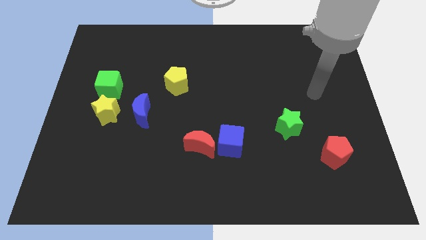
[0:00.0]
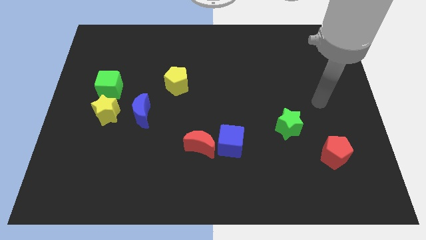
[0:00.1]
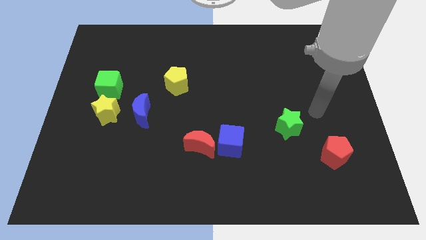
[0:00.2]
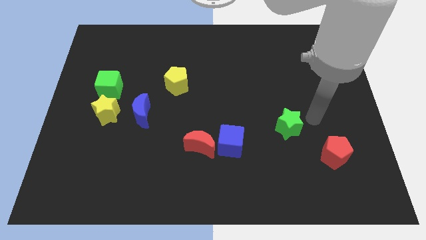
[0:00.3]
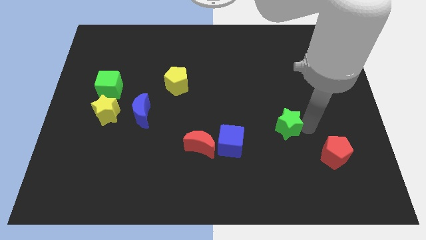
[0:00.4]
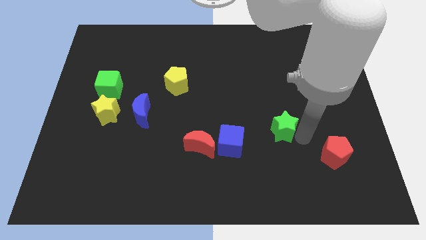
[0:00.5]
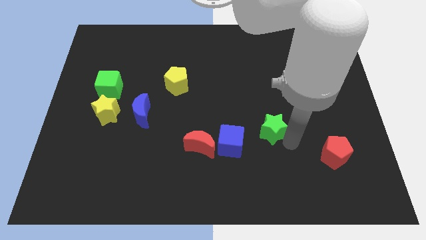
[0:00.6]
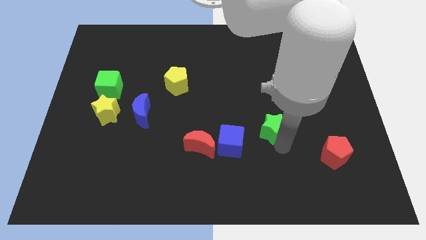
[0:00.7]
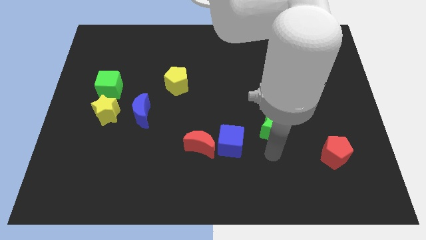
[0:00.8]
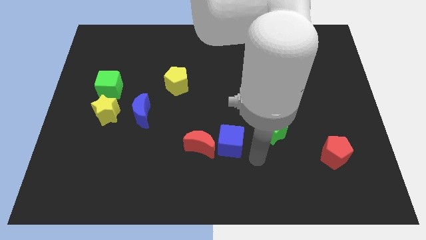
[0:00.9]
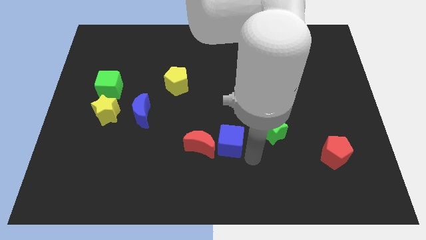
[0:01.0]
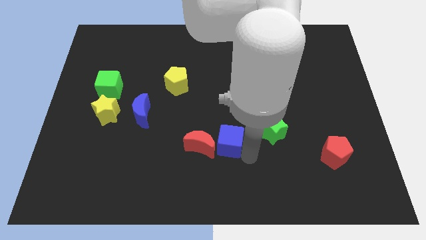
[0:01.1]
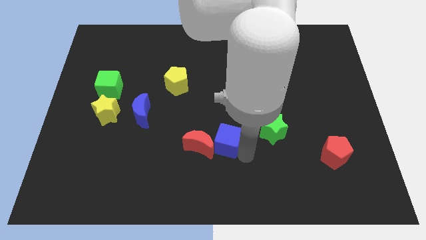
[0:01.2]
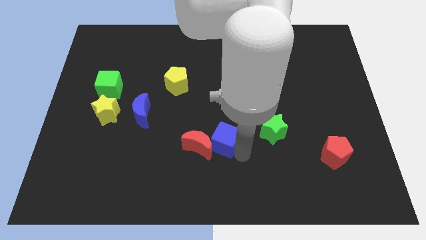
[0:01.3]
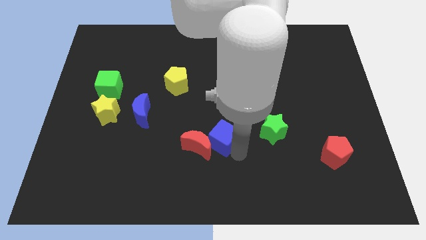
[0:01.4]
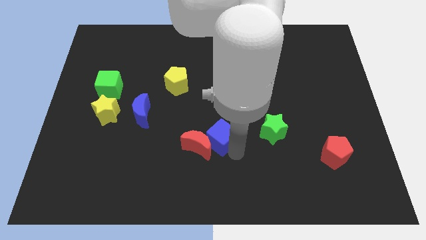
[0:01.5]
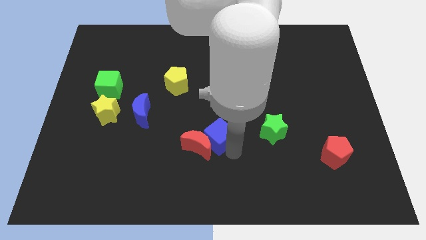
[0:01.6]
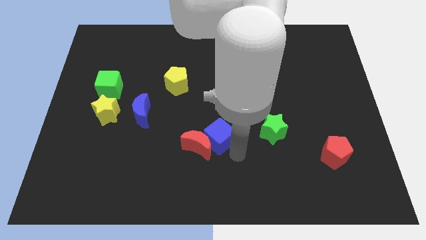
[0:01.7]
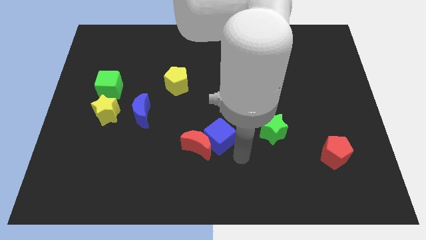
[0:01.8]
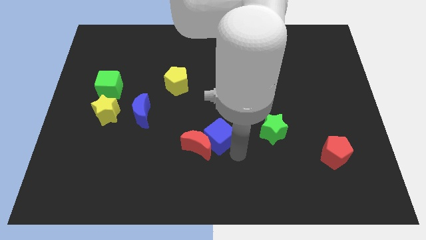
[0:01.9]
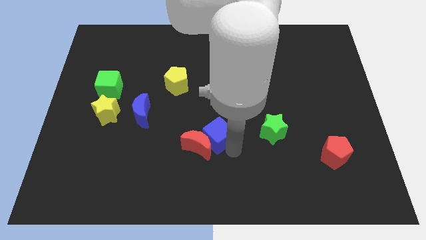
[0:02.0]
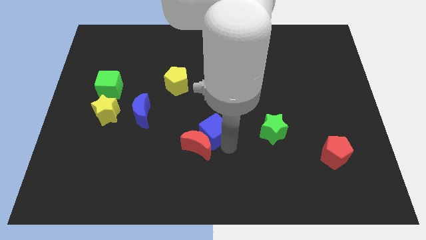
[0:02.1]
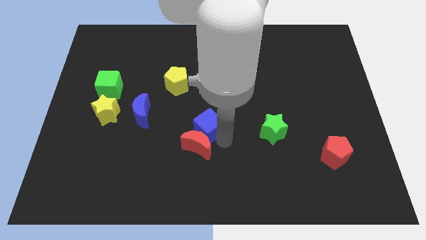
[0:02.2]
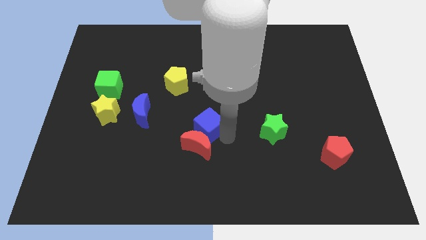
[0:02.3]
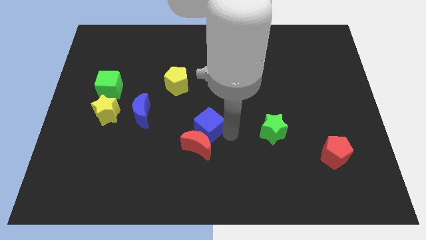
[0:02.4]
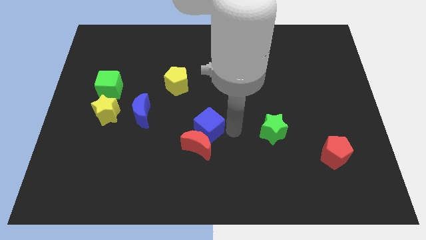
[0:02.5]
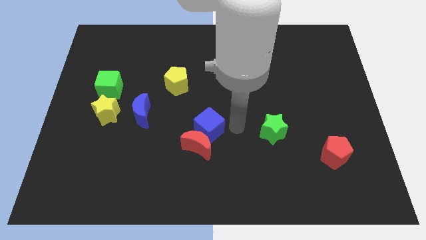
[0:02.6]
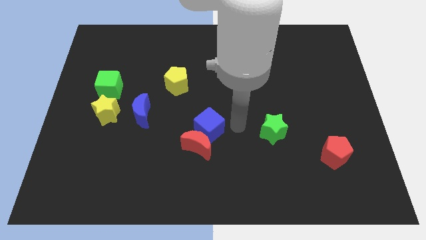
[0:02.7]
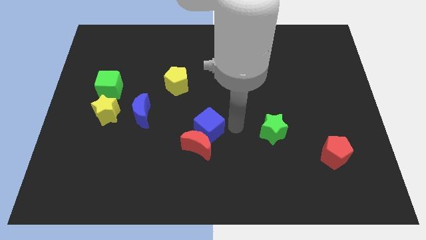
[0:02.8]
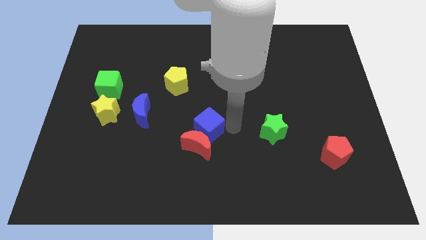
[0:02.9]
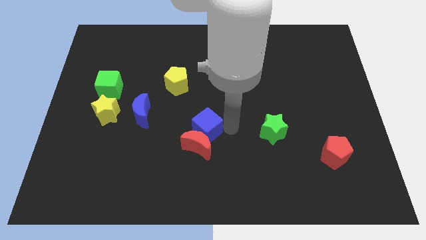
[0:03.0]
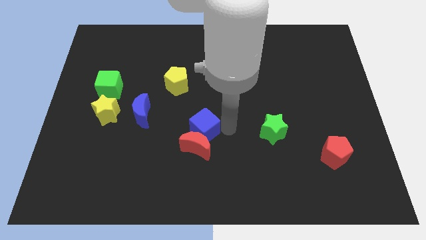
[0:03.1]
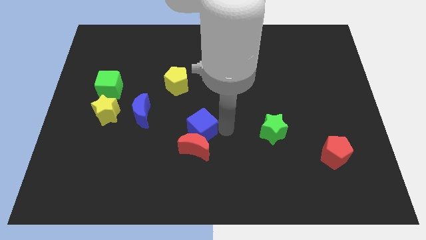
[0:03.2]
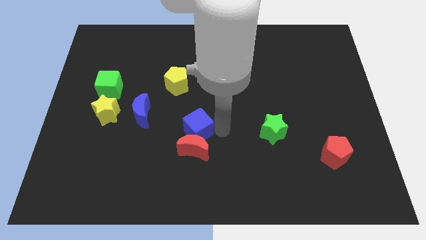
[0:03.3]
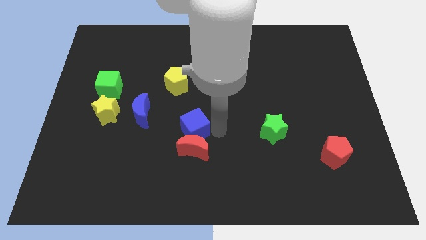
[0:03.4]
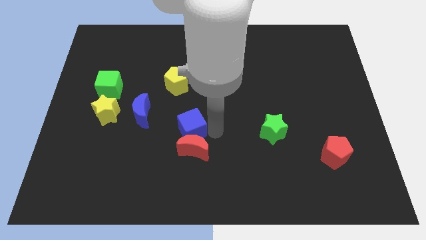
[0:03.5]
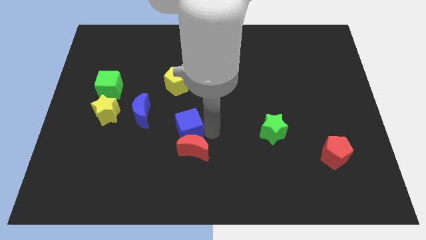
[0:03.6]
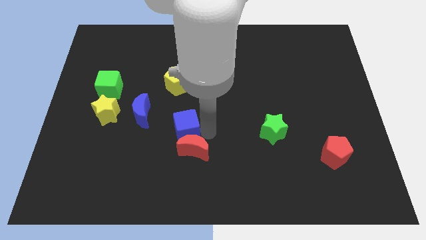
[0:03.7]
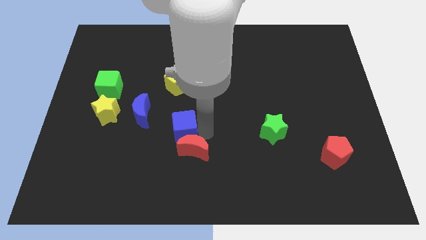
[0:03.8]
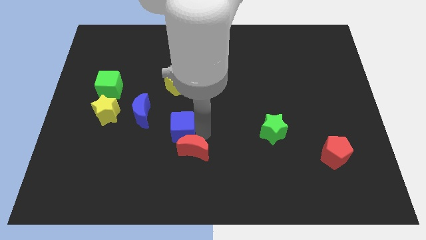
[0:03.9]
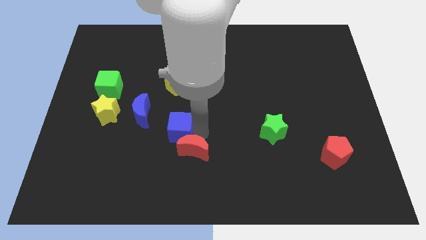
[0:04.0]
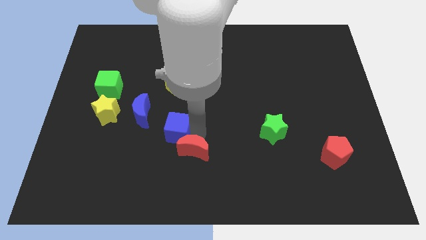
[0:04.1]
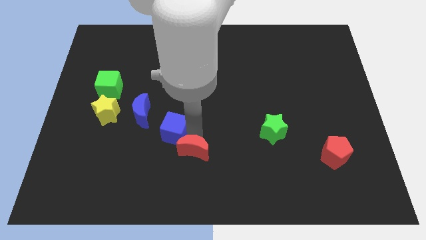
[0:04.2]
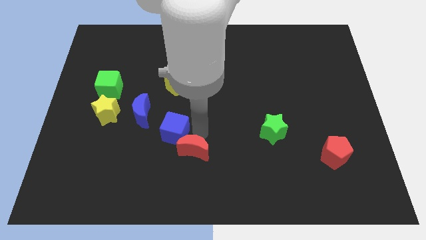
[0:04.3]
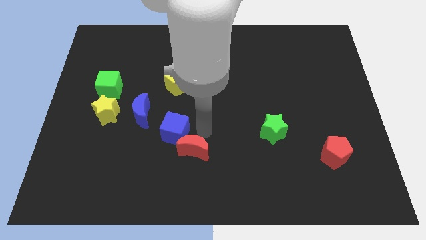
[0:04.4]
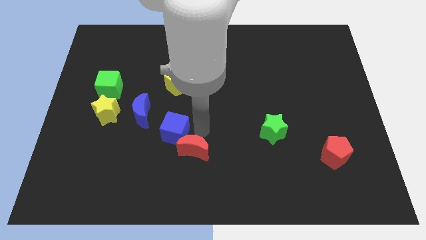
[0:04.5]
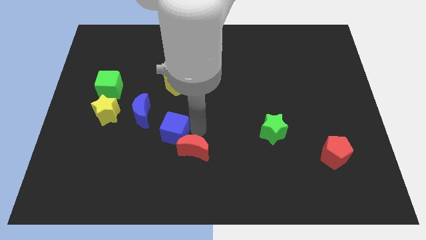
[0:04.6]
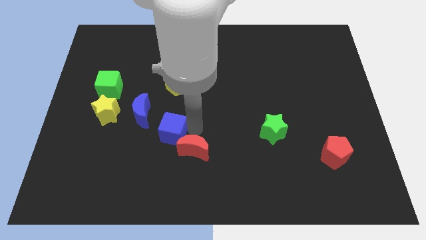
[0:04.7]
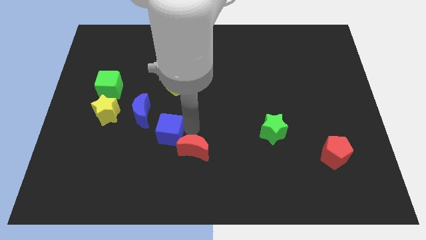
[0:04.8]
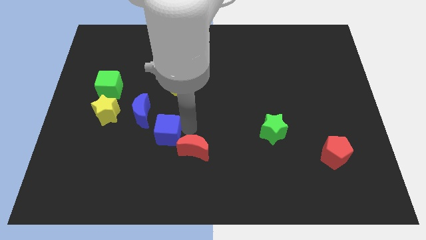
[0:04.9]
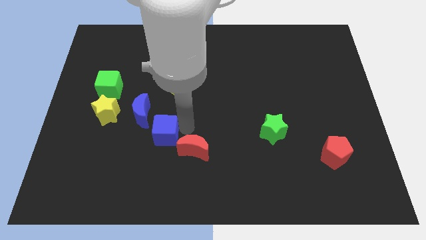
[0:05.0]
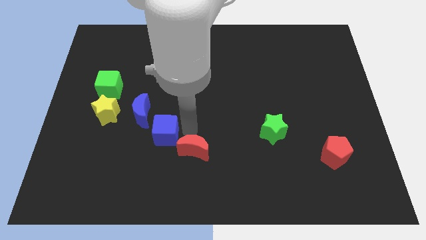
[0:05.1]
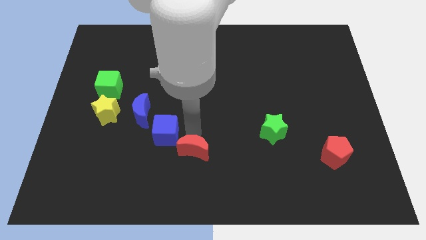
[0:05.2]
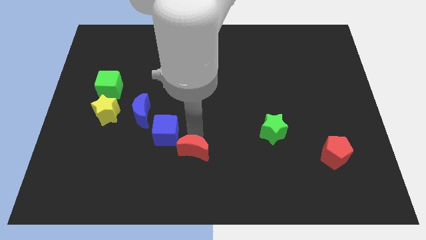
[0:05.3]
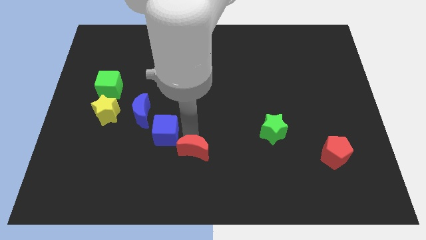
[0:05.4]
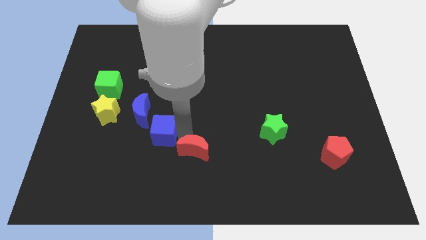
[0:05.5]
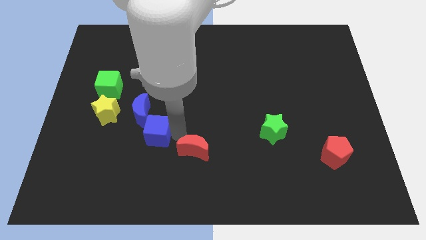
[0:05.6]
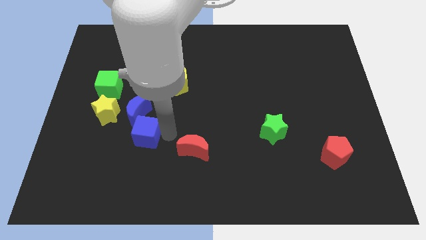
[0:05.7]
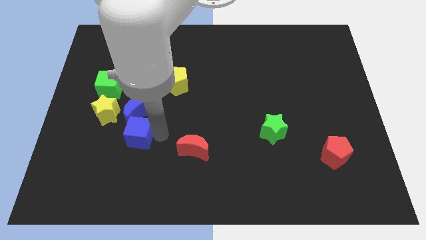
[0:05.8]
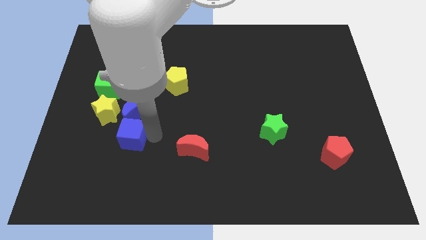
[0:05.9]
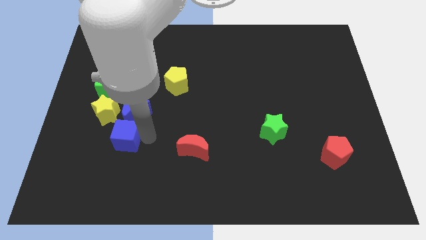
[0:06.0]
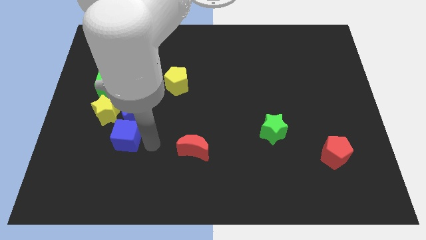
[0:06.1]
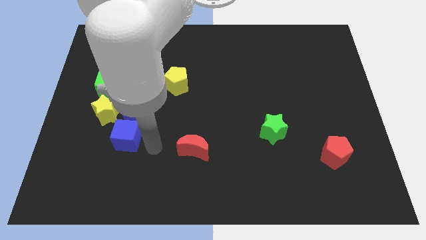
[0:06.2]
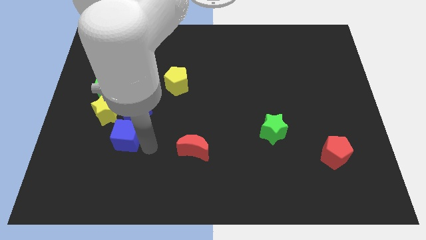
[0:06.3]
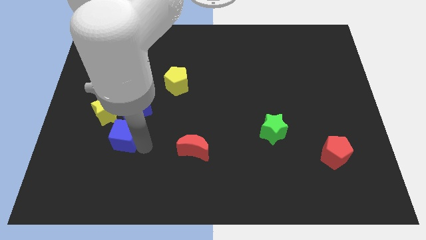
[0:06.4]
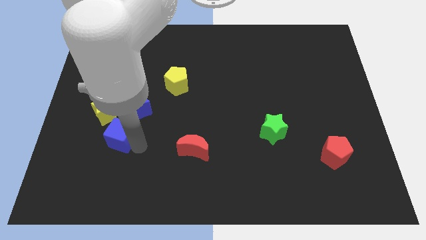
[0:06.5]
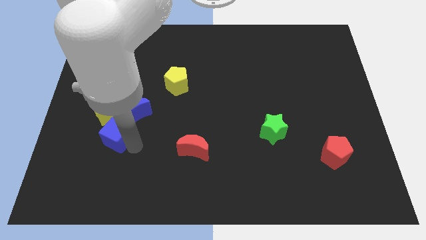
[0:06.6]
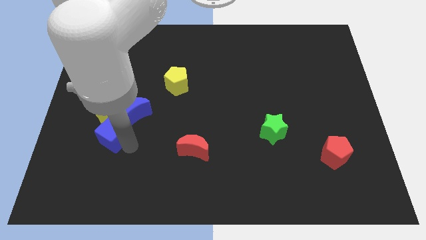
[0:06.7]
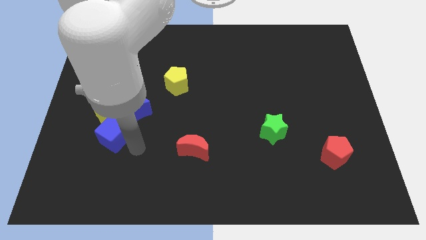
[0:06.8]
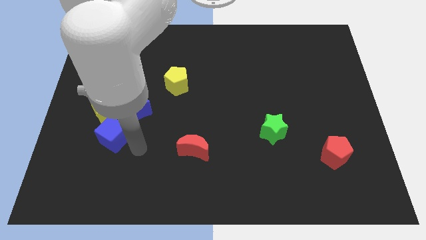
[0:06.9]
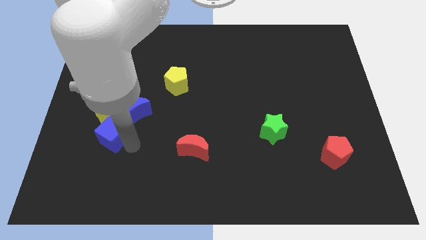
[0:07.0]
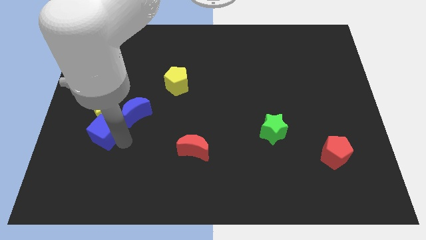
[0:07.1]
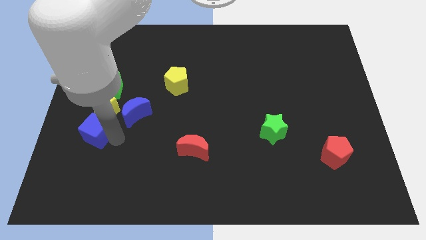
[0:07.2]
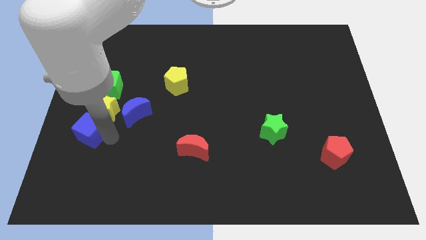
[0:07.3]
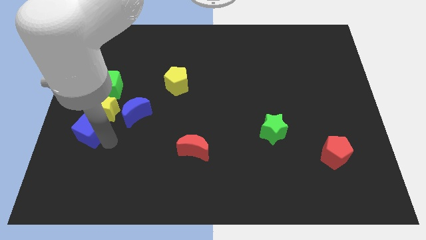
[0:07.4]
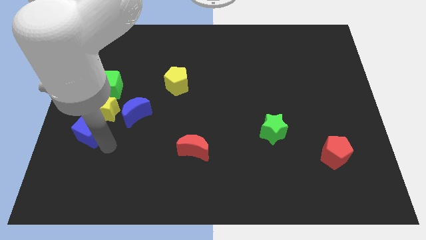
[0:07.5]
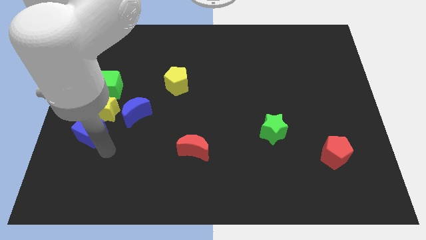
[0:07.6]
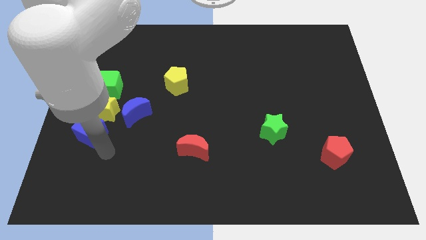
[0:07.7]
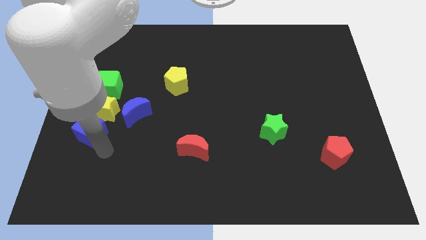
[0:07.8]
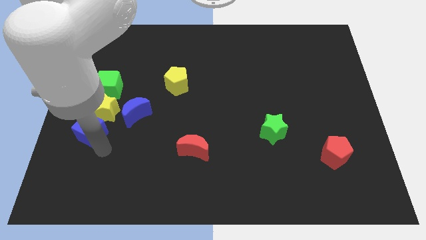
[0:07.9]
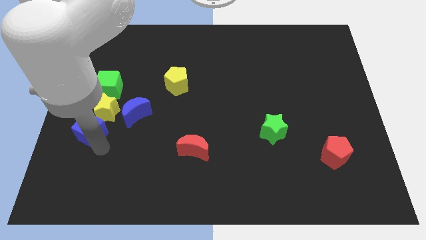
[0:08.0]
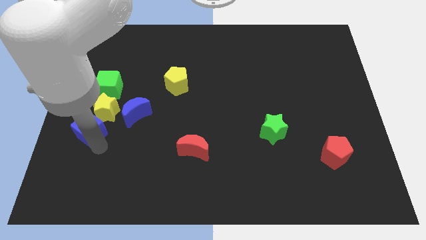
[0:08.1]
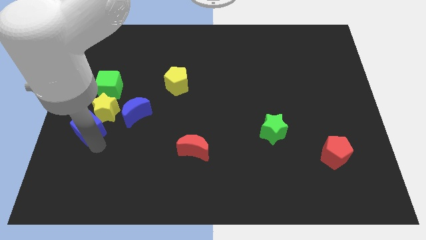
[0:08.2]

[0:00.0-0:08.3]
slide the blue cube to the center left
